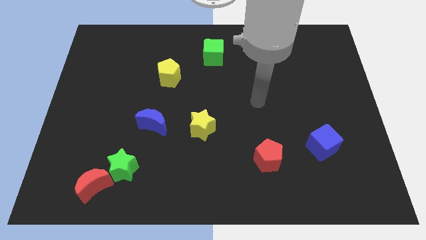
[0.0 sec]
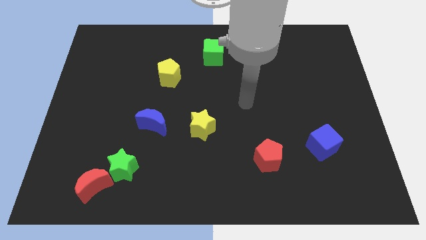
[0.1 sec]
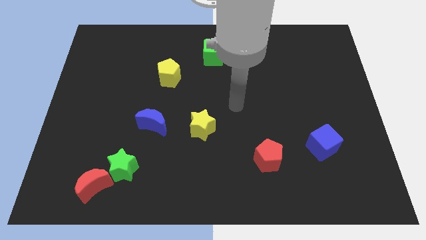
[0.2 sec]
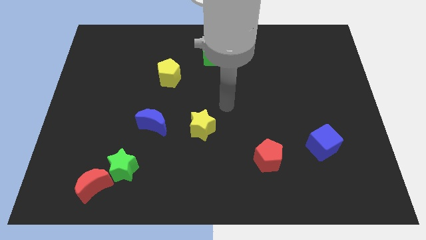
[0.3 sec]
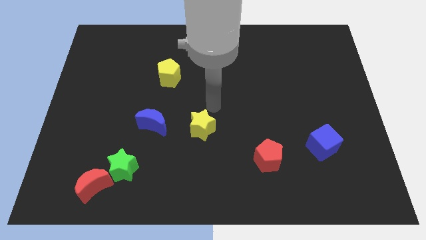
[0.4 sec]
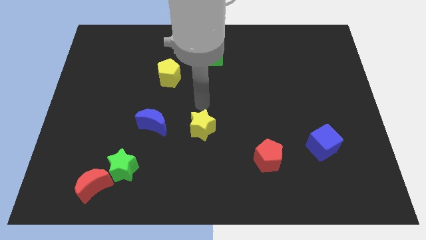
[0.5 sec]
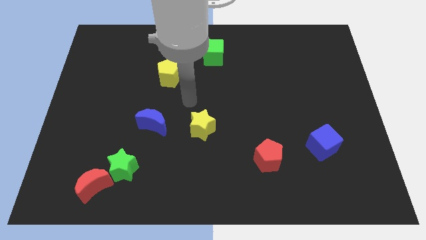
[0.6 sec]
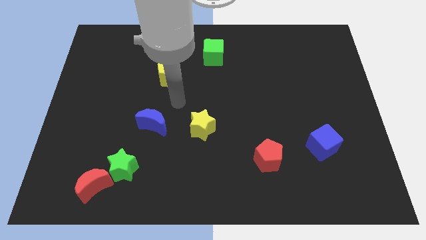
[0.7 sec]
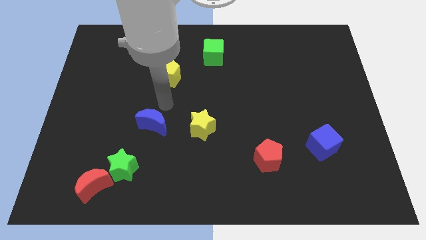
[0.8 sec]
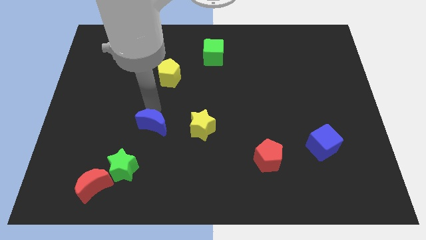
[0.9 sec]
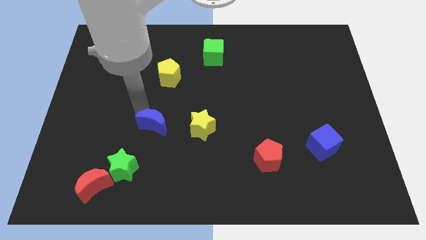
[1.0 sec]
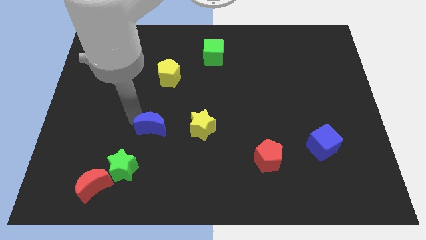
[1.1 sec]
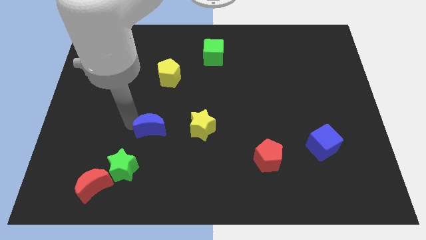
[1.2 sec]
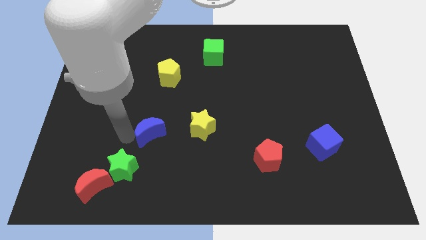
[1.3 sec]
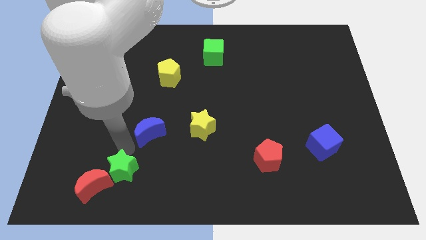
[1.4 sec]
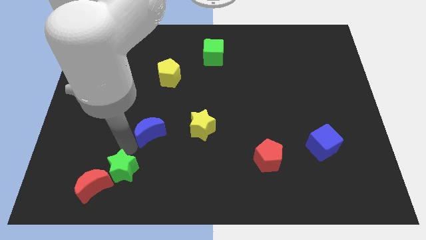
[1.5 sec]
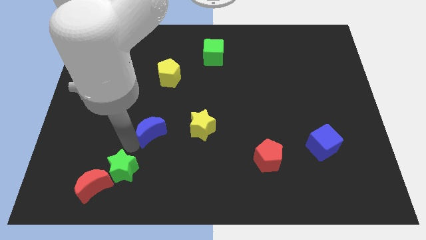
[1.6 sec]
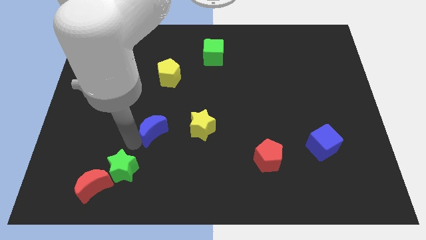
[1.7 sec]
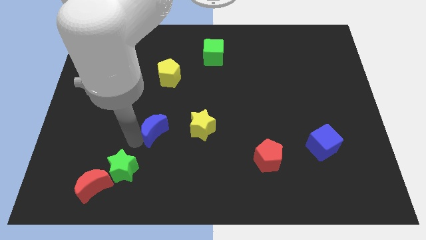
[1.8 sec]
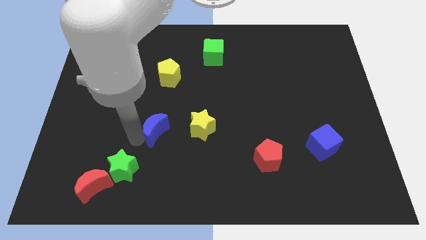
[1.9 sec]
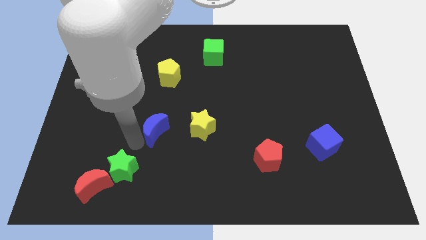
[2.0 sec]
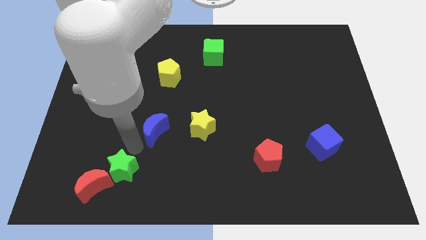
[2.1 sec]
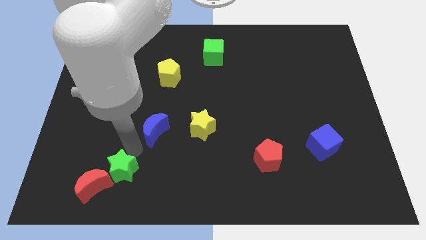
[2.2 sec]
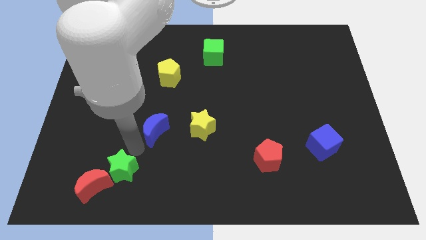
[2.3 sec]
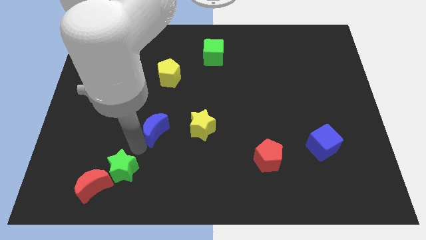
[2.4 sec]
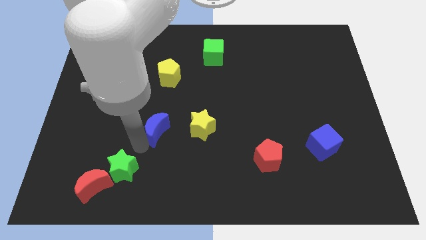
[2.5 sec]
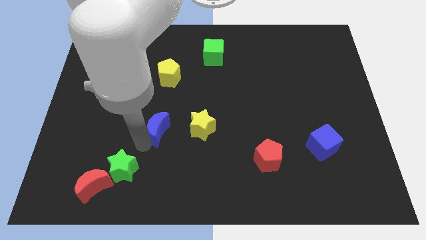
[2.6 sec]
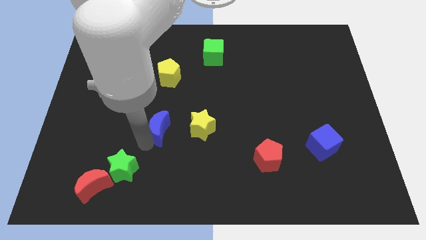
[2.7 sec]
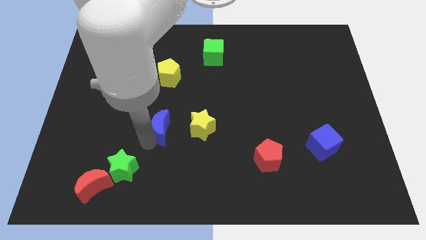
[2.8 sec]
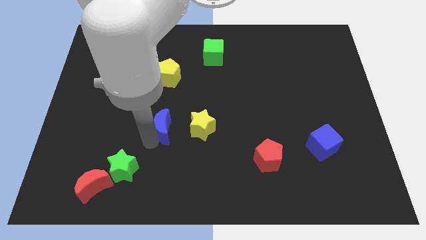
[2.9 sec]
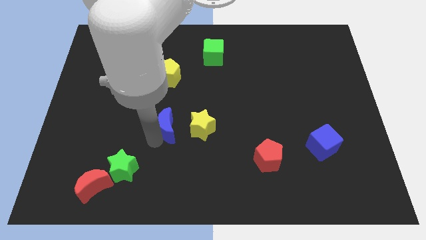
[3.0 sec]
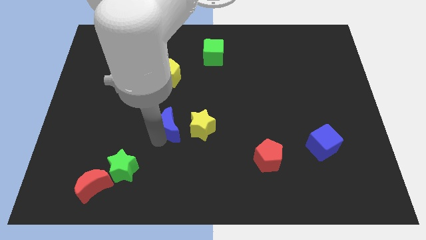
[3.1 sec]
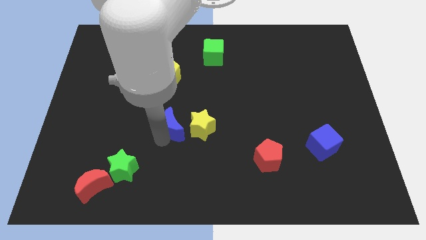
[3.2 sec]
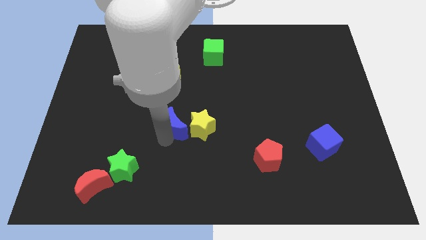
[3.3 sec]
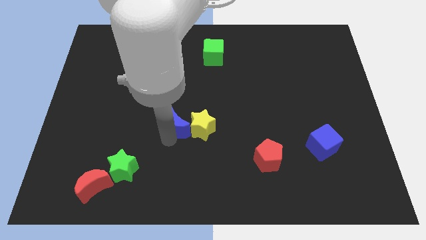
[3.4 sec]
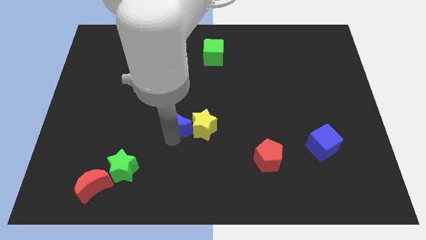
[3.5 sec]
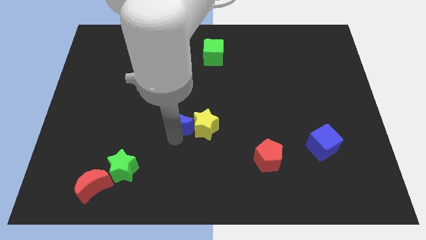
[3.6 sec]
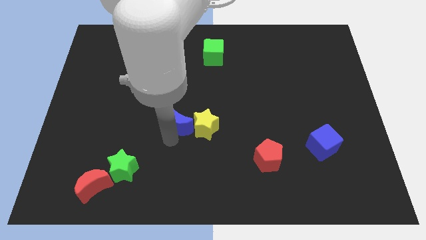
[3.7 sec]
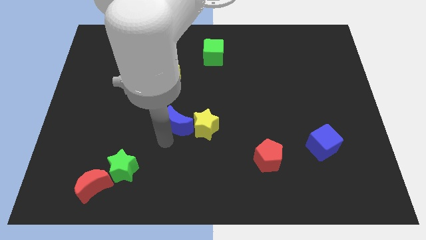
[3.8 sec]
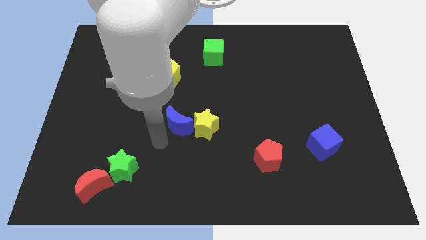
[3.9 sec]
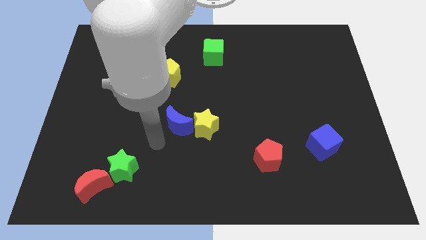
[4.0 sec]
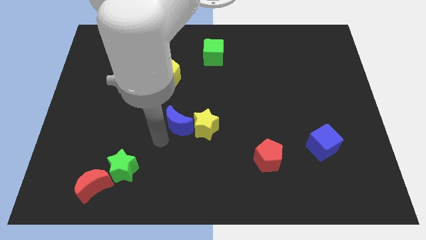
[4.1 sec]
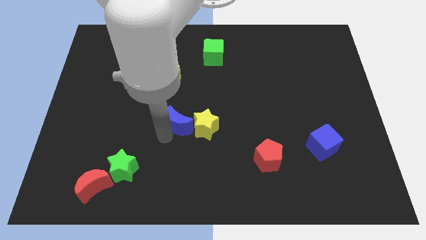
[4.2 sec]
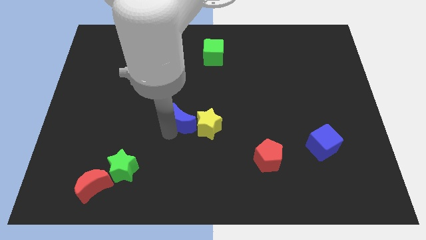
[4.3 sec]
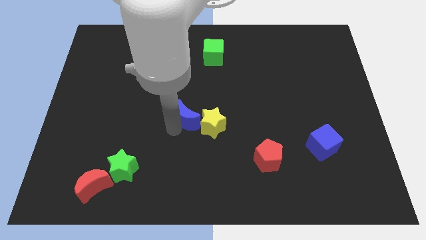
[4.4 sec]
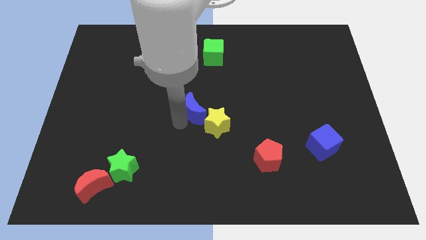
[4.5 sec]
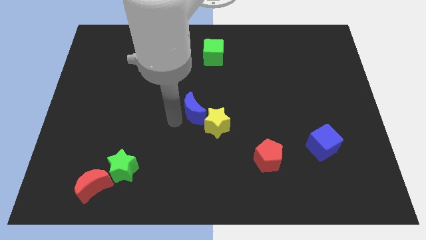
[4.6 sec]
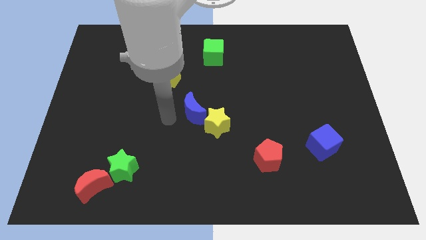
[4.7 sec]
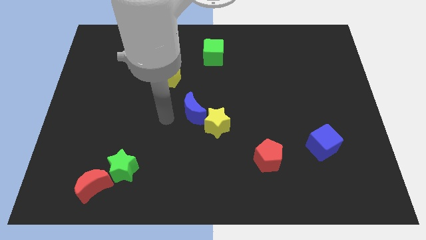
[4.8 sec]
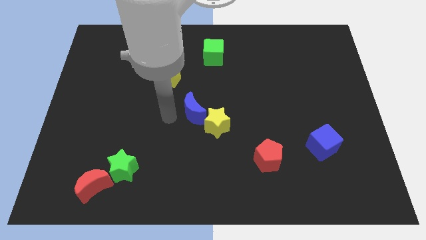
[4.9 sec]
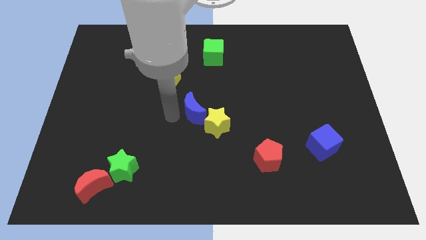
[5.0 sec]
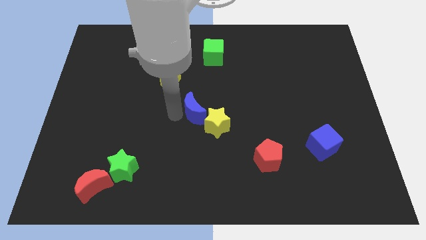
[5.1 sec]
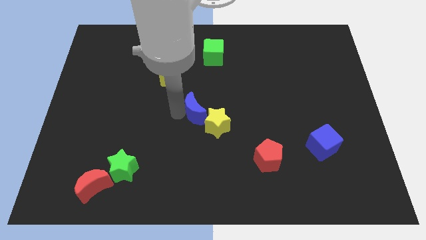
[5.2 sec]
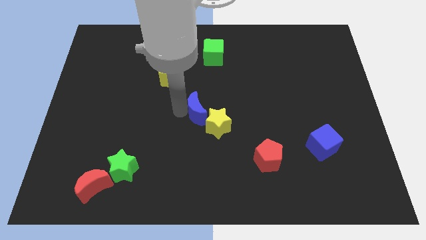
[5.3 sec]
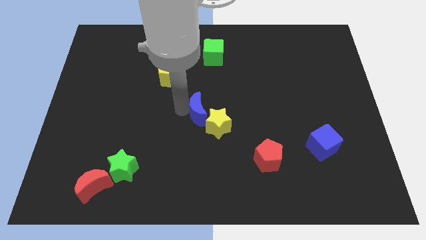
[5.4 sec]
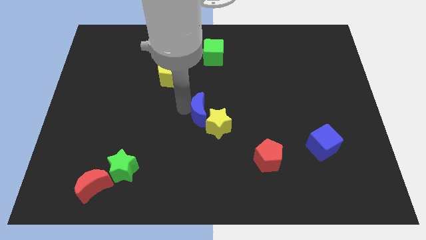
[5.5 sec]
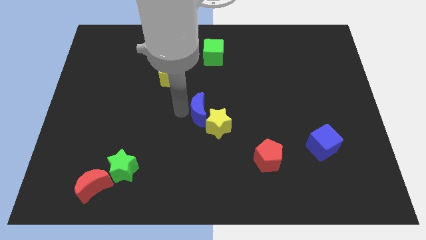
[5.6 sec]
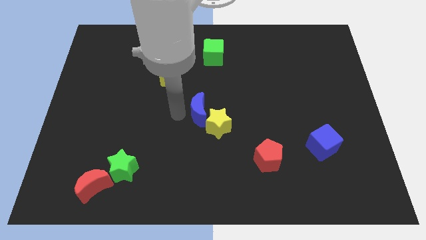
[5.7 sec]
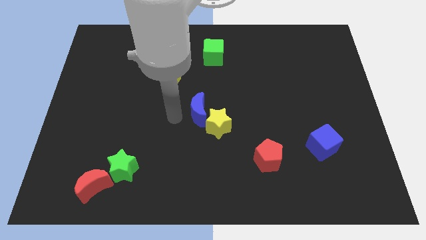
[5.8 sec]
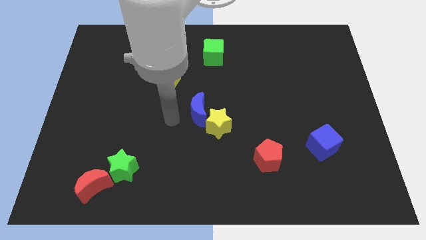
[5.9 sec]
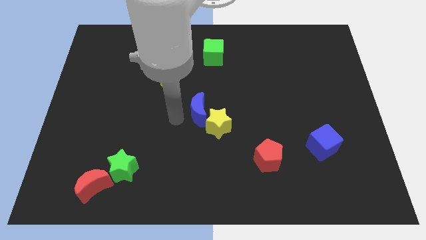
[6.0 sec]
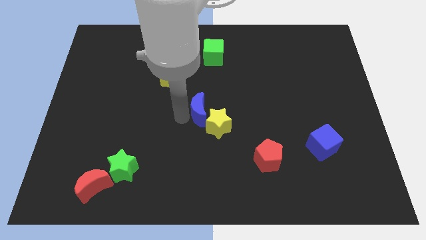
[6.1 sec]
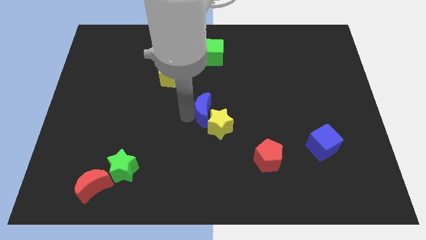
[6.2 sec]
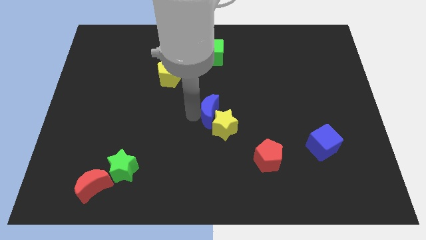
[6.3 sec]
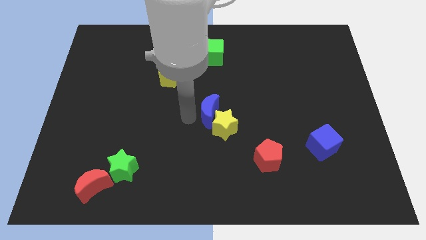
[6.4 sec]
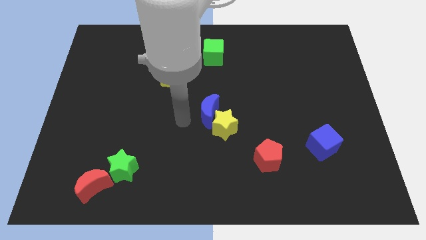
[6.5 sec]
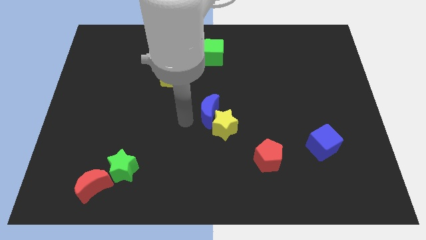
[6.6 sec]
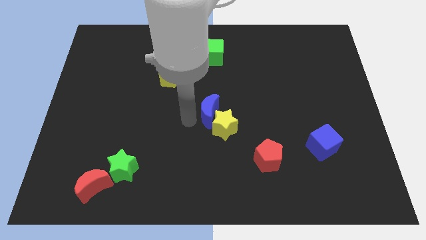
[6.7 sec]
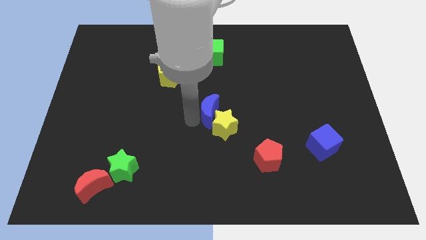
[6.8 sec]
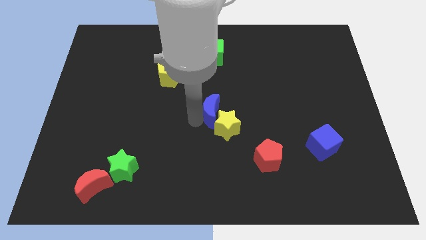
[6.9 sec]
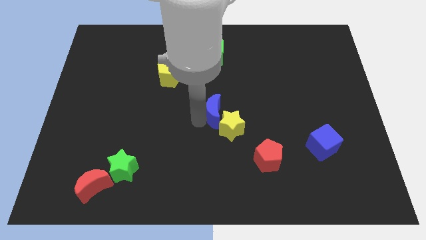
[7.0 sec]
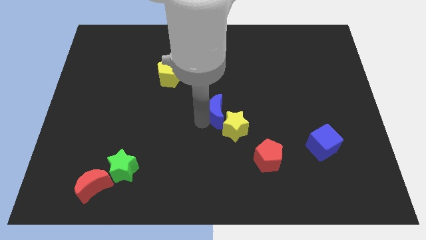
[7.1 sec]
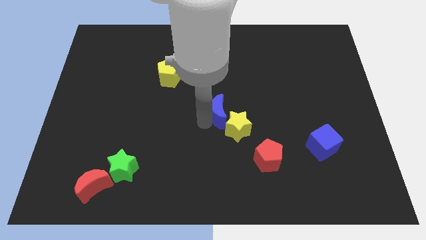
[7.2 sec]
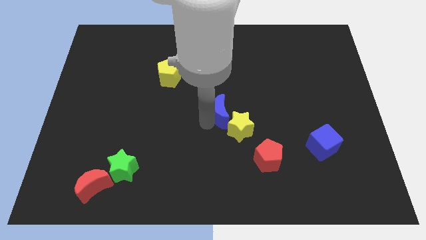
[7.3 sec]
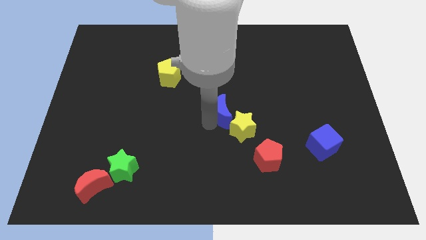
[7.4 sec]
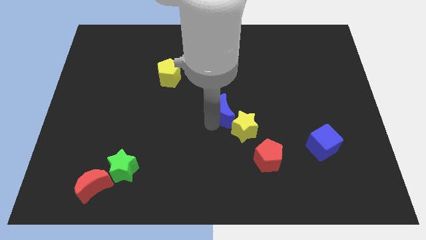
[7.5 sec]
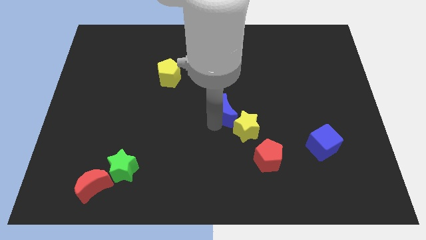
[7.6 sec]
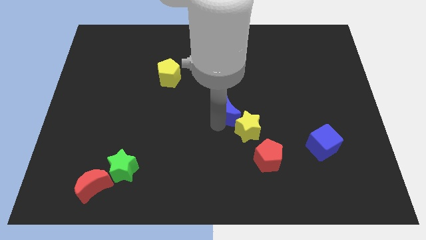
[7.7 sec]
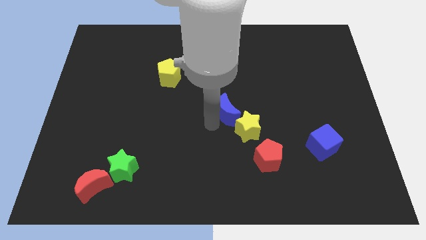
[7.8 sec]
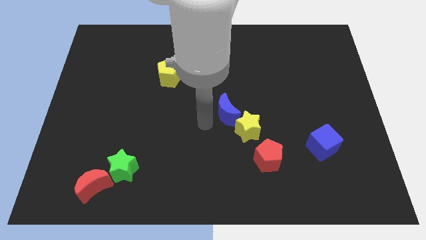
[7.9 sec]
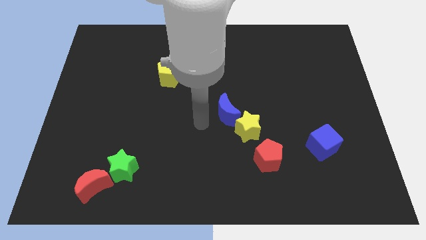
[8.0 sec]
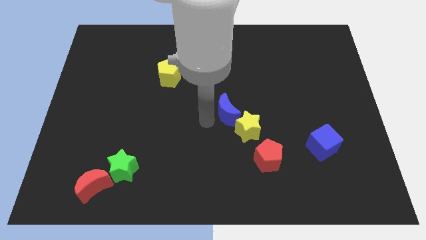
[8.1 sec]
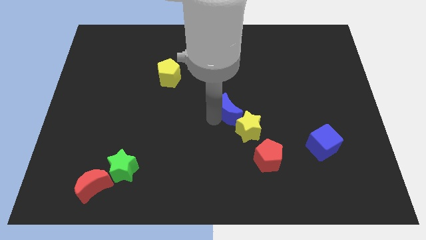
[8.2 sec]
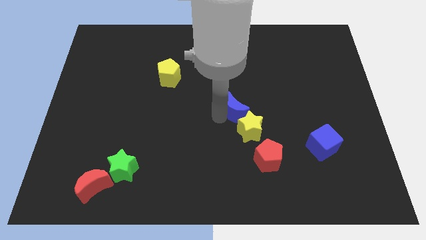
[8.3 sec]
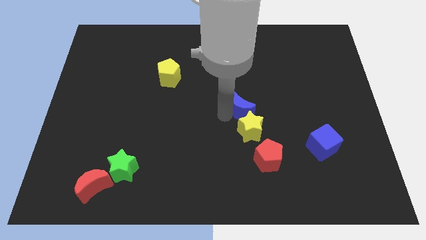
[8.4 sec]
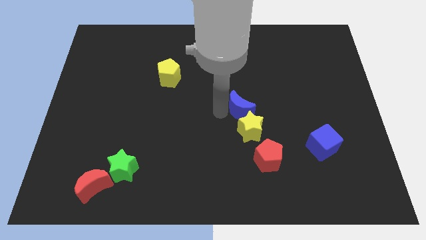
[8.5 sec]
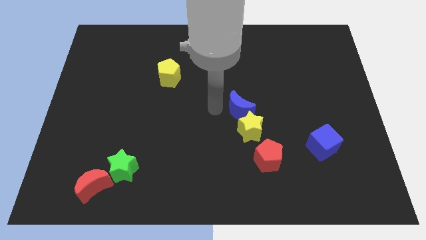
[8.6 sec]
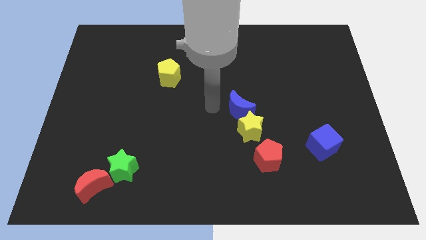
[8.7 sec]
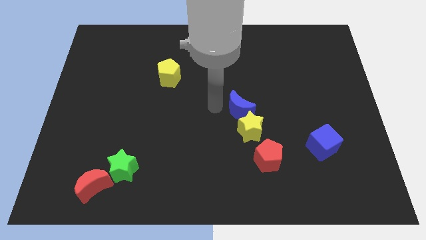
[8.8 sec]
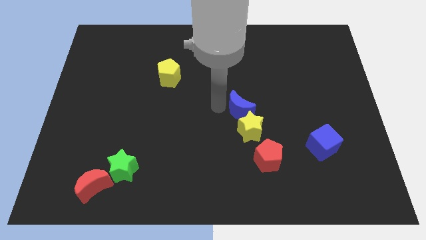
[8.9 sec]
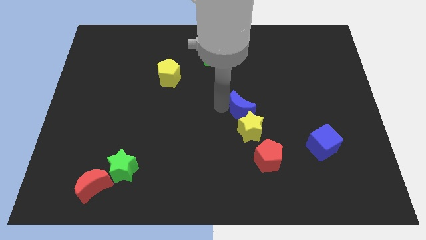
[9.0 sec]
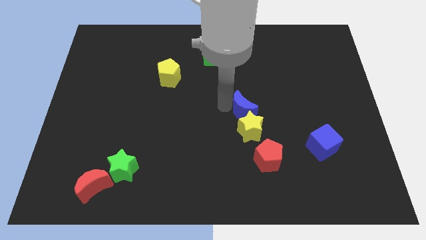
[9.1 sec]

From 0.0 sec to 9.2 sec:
move the blue moon to the right
